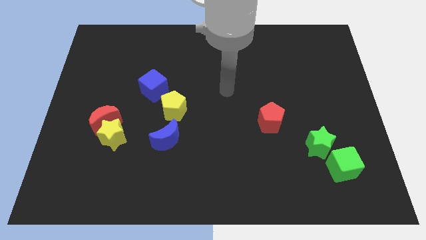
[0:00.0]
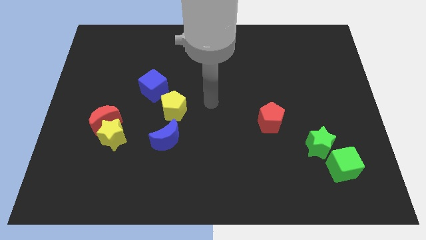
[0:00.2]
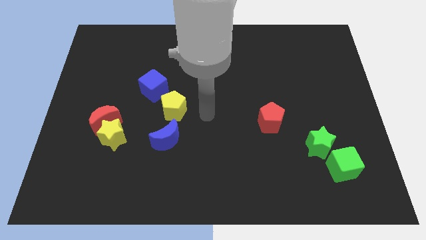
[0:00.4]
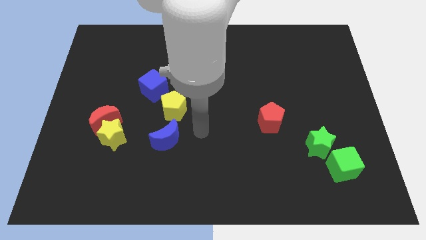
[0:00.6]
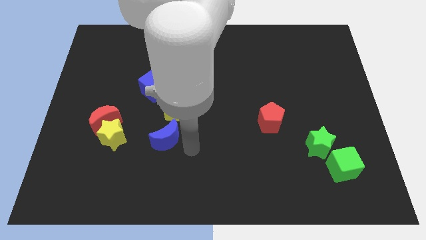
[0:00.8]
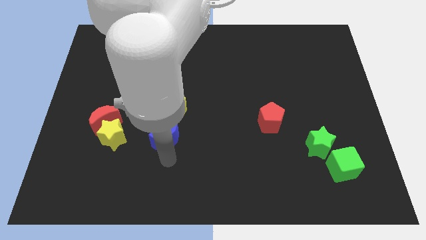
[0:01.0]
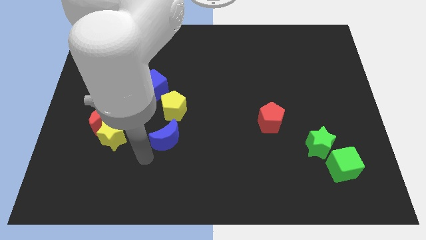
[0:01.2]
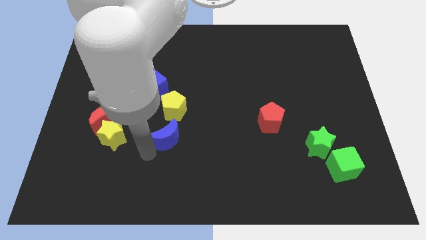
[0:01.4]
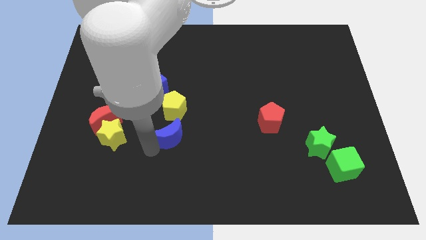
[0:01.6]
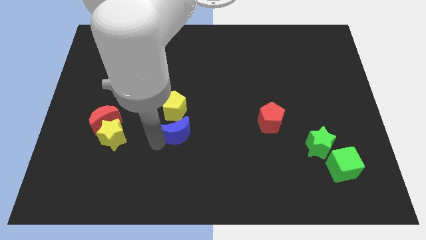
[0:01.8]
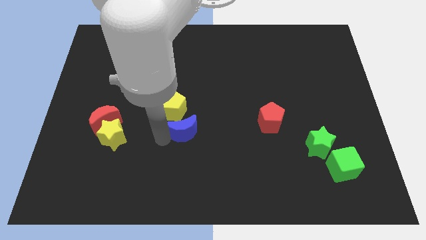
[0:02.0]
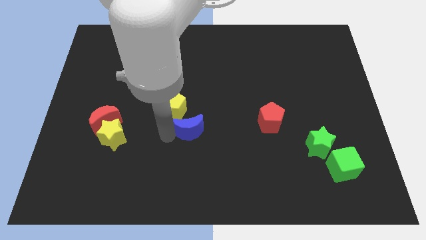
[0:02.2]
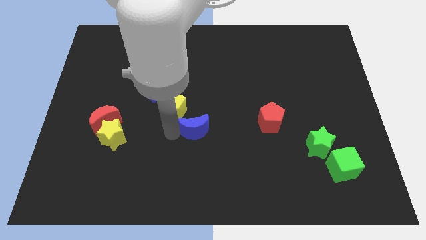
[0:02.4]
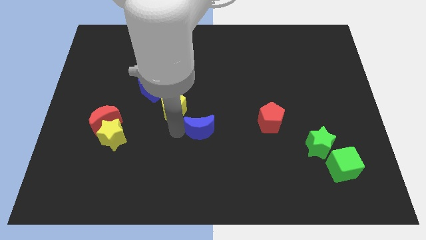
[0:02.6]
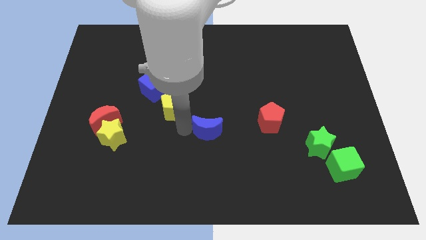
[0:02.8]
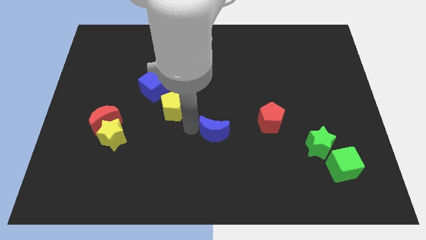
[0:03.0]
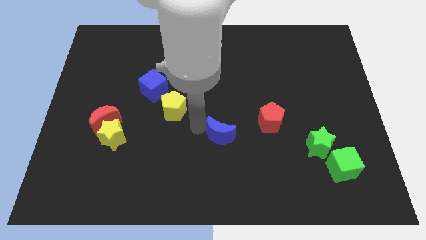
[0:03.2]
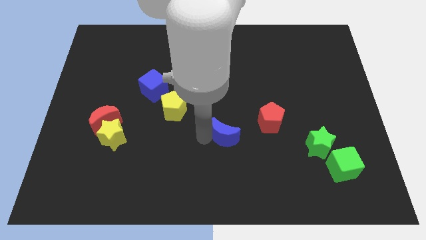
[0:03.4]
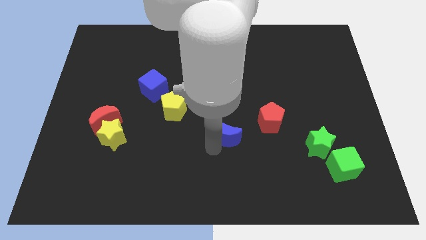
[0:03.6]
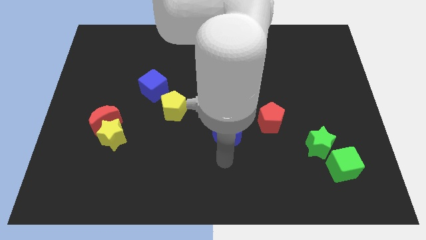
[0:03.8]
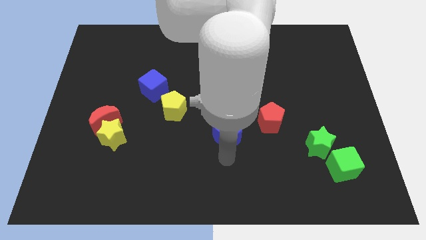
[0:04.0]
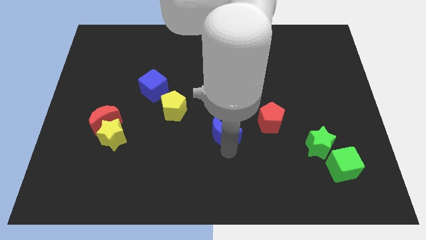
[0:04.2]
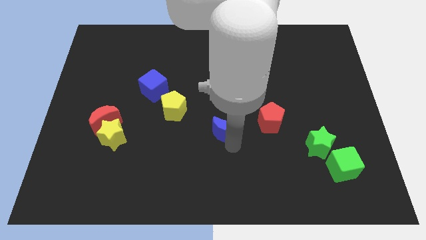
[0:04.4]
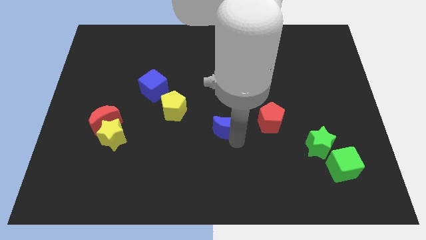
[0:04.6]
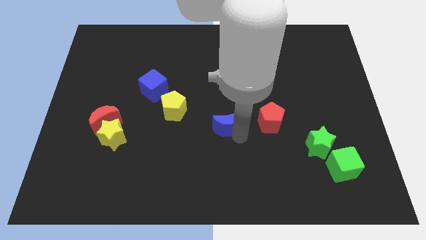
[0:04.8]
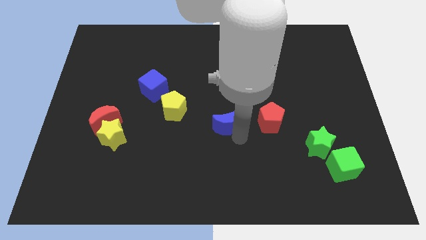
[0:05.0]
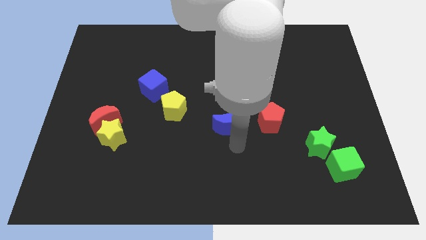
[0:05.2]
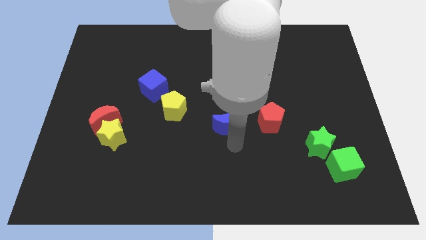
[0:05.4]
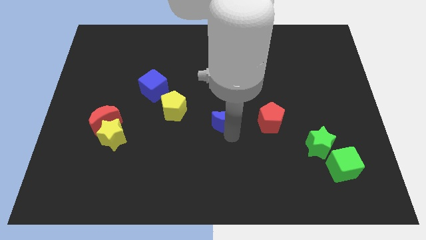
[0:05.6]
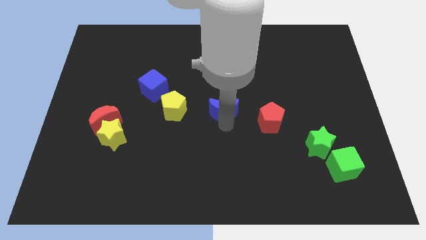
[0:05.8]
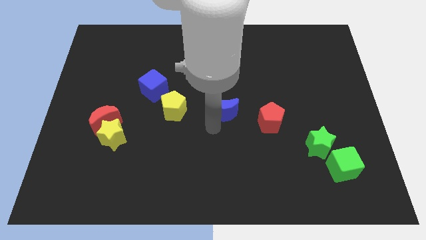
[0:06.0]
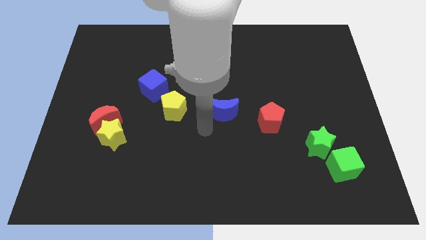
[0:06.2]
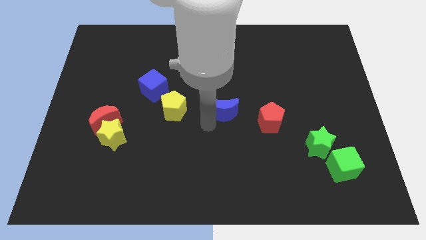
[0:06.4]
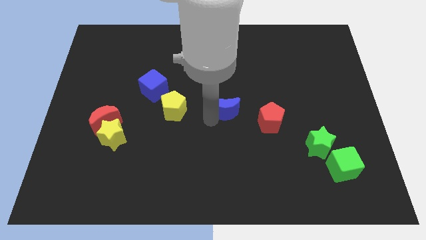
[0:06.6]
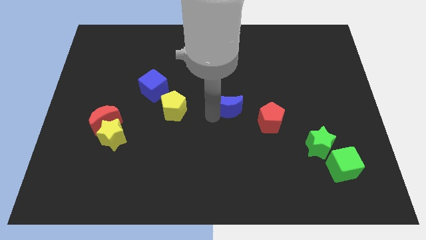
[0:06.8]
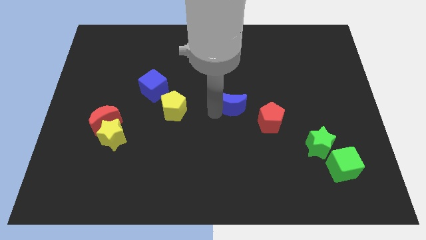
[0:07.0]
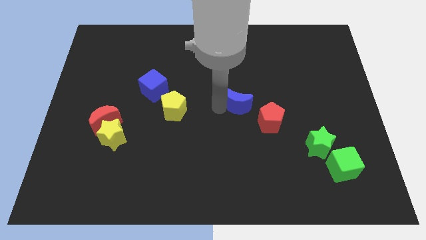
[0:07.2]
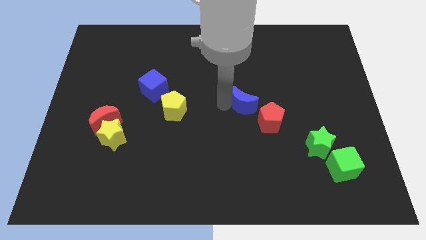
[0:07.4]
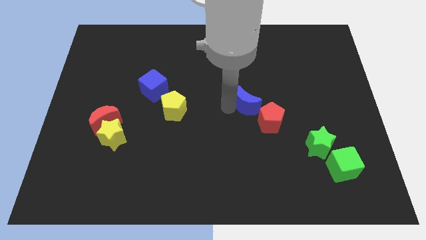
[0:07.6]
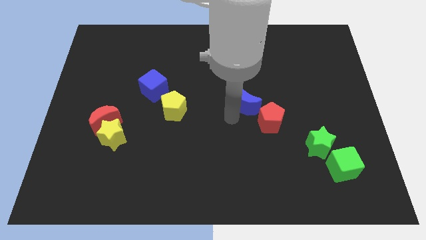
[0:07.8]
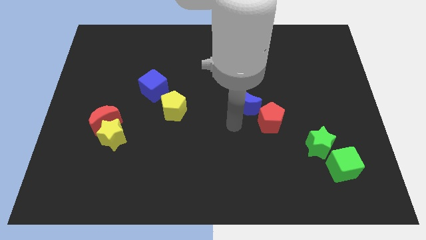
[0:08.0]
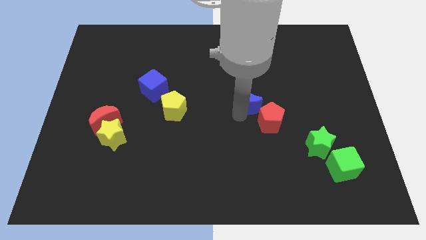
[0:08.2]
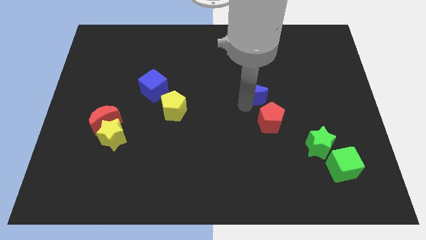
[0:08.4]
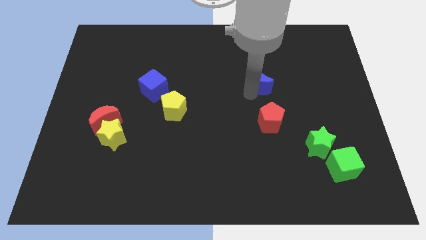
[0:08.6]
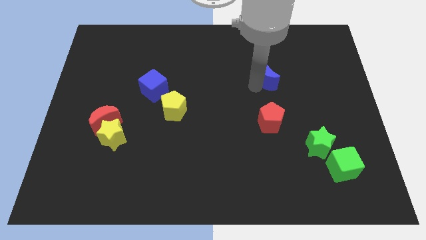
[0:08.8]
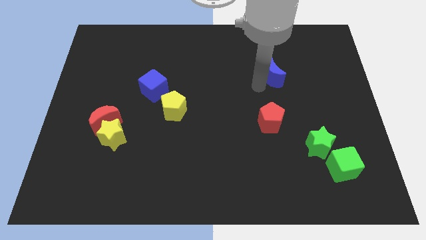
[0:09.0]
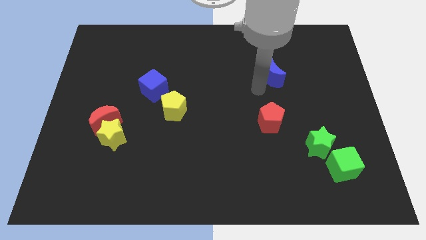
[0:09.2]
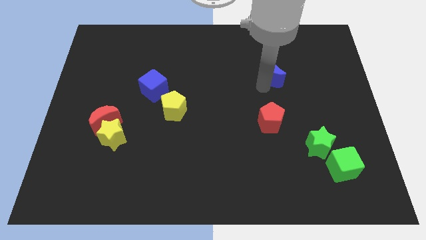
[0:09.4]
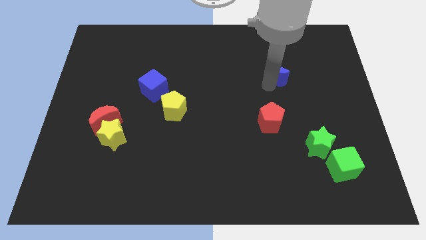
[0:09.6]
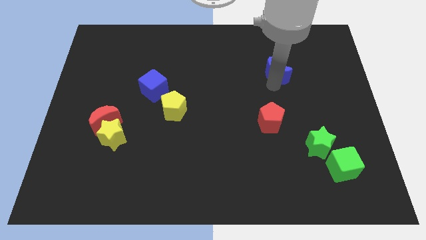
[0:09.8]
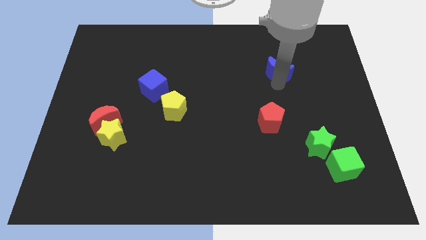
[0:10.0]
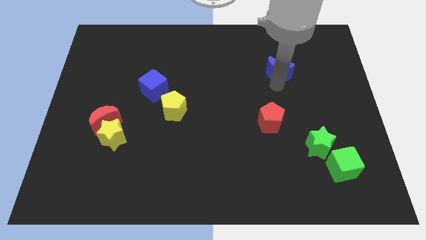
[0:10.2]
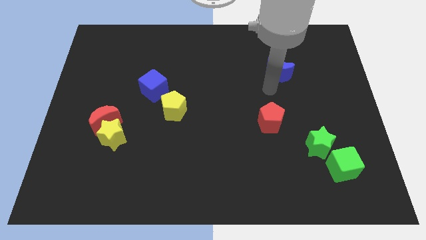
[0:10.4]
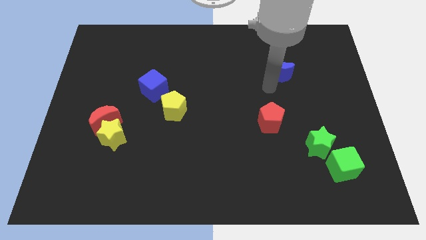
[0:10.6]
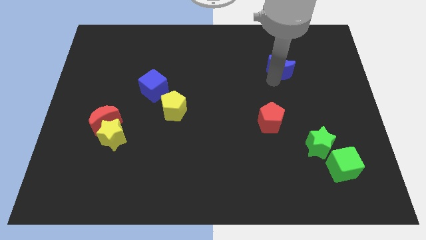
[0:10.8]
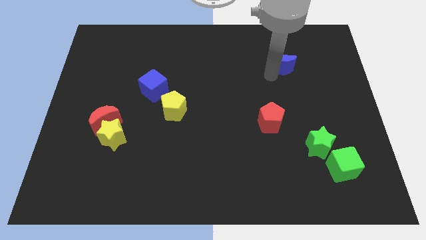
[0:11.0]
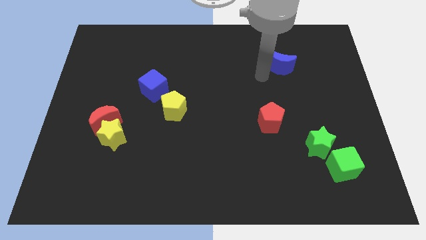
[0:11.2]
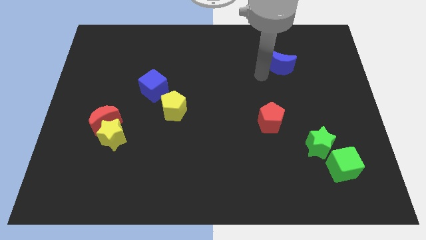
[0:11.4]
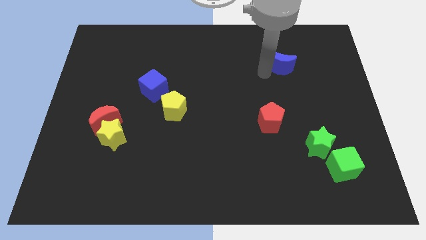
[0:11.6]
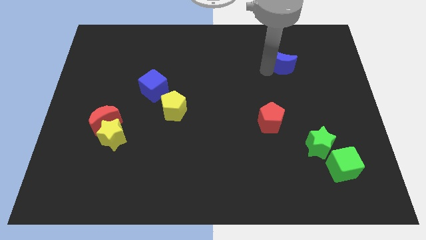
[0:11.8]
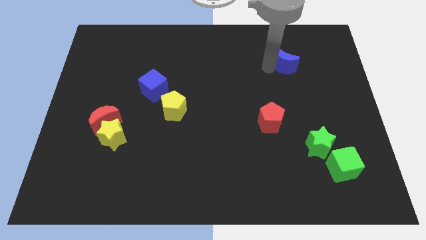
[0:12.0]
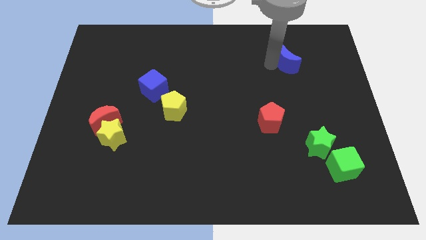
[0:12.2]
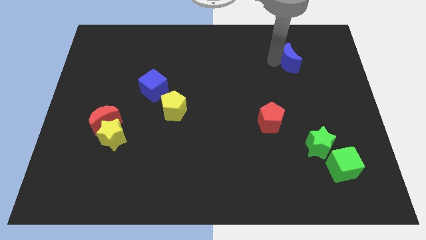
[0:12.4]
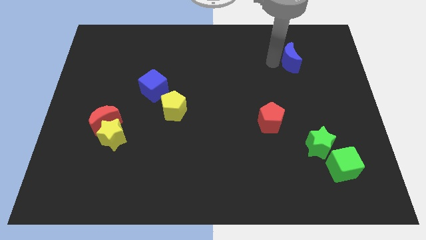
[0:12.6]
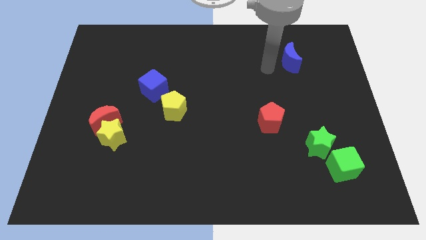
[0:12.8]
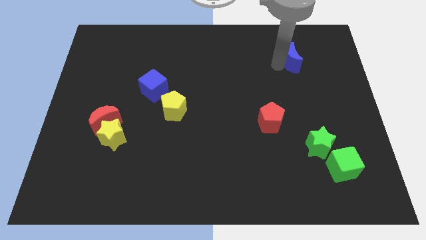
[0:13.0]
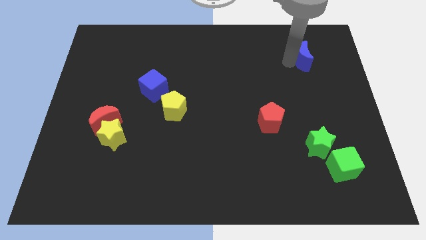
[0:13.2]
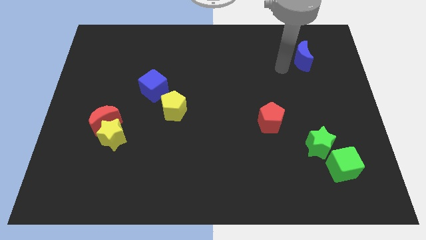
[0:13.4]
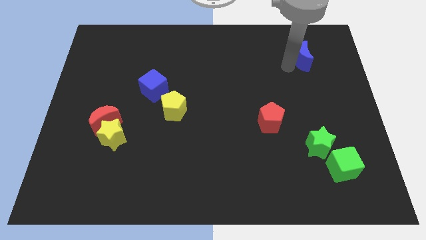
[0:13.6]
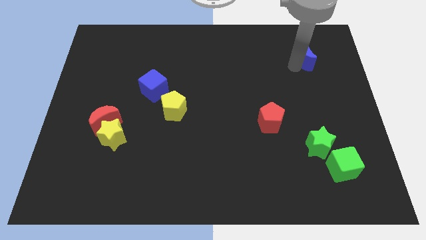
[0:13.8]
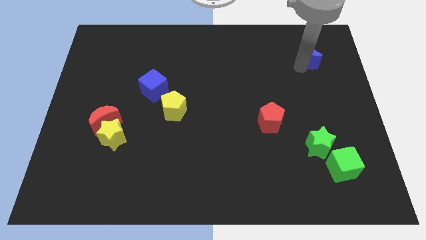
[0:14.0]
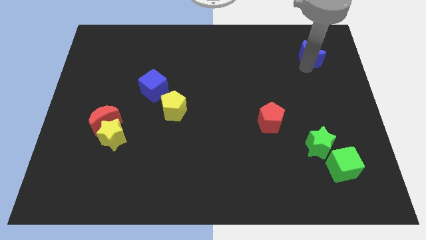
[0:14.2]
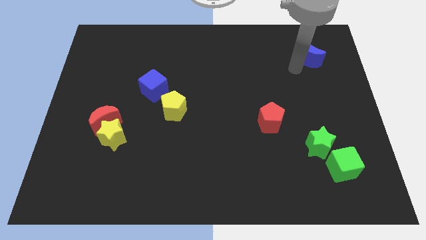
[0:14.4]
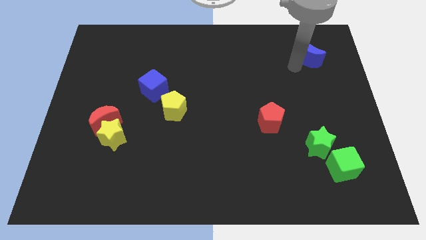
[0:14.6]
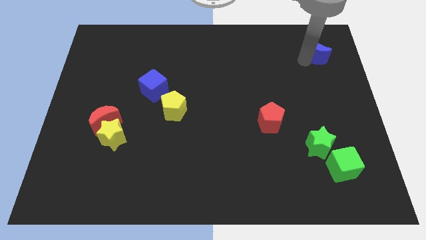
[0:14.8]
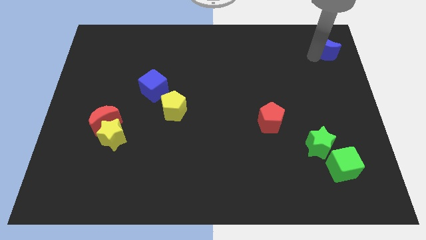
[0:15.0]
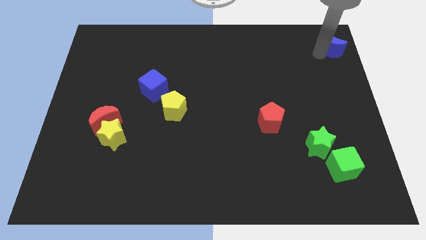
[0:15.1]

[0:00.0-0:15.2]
slide the blue moon to the top right of the board
